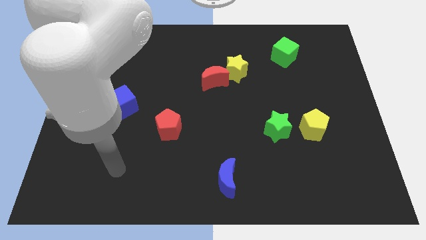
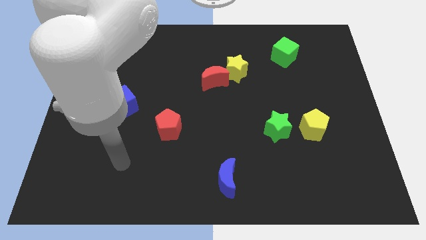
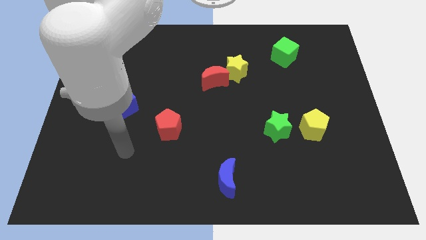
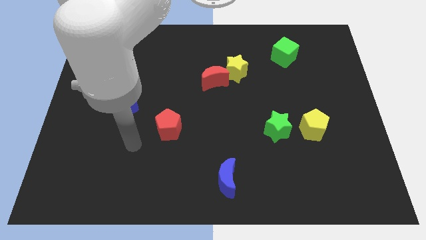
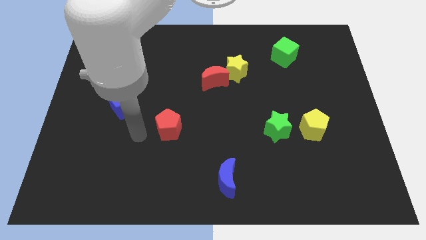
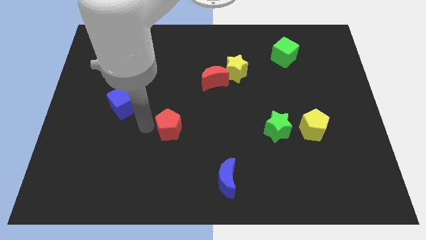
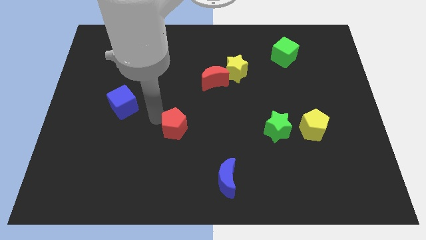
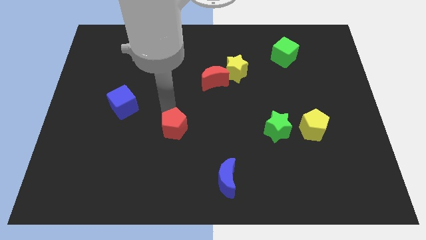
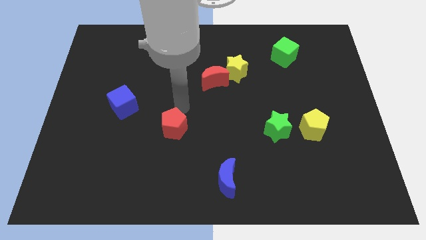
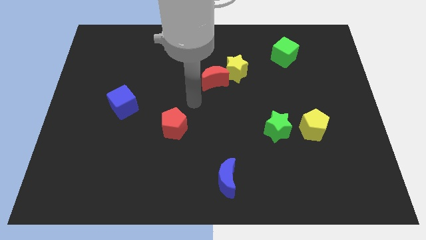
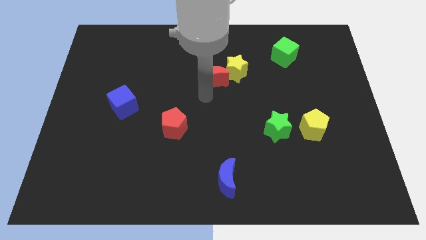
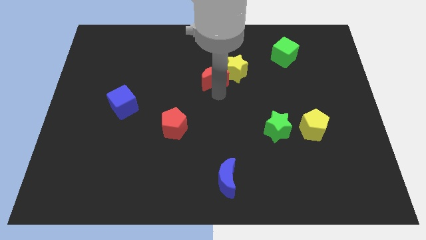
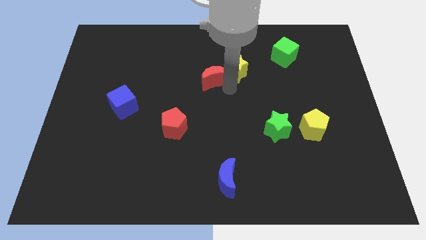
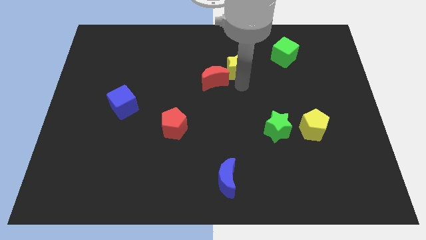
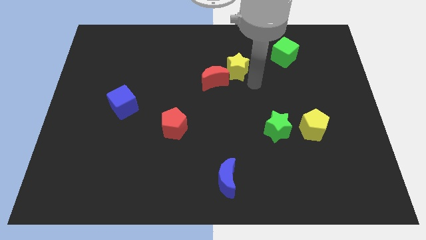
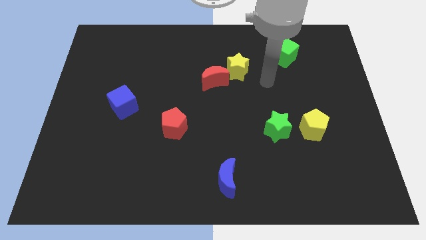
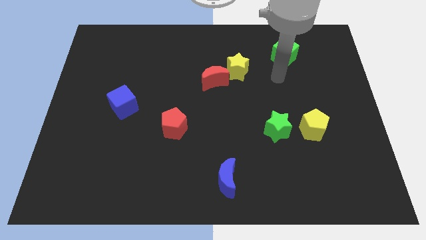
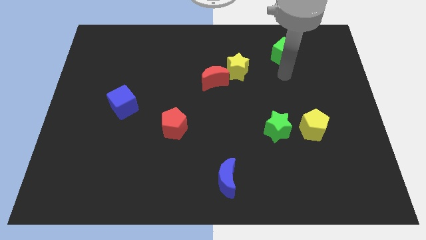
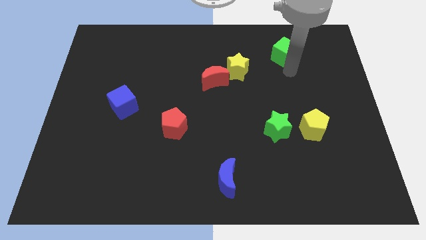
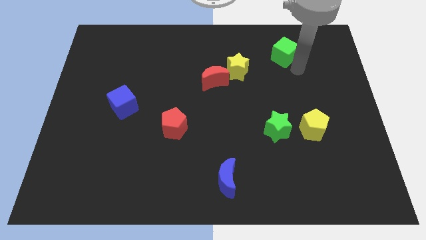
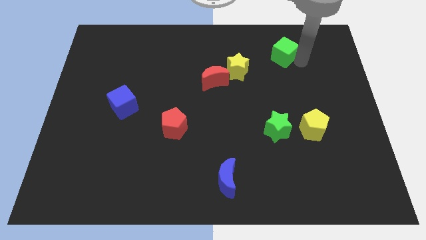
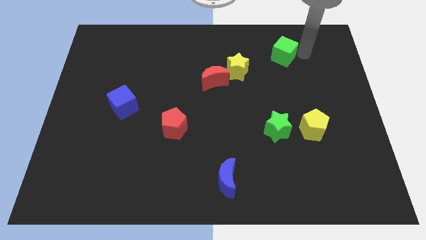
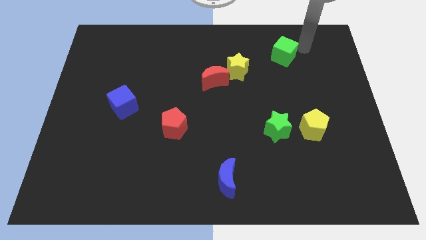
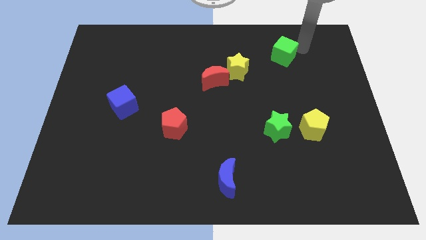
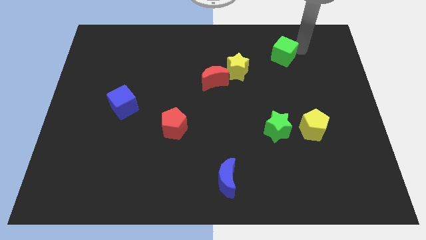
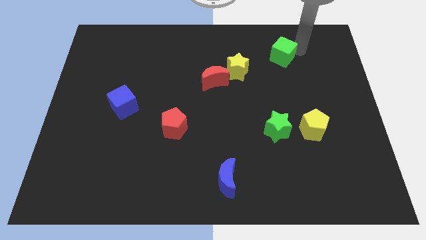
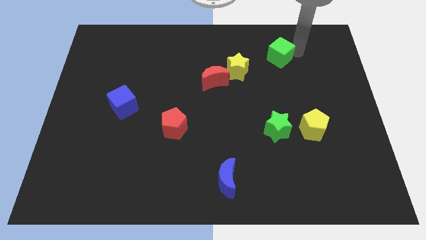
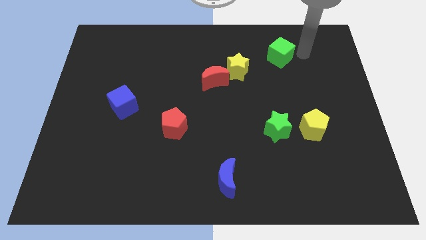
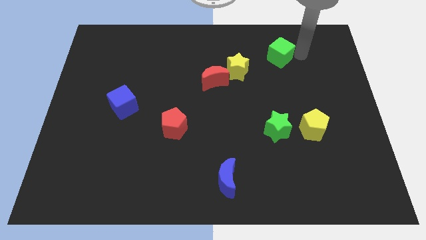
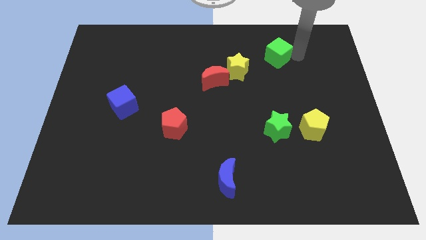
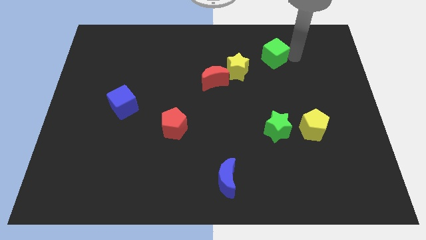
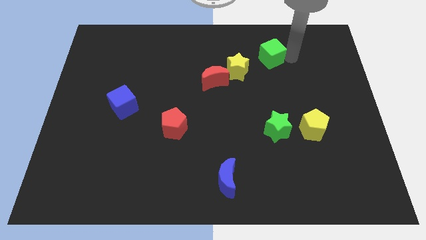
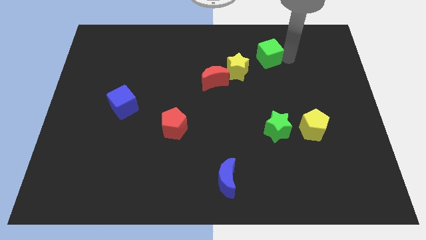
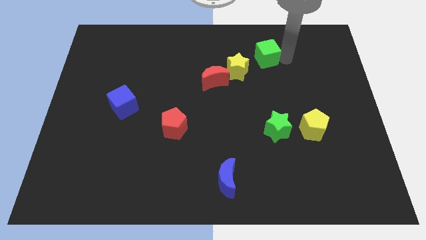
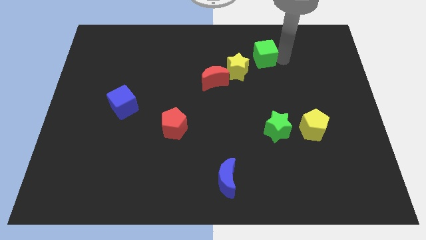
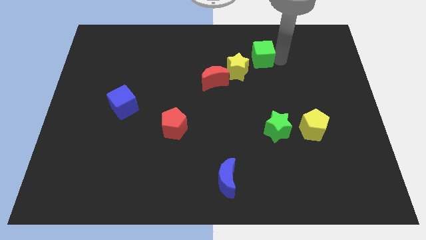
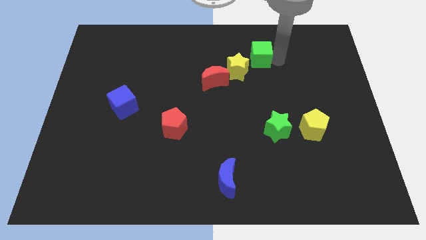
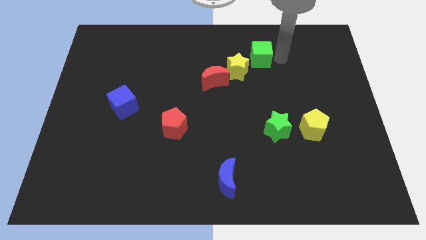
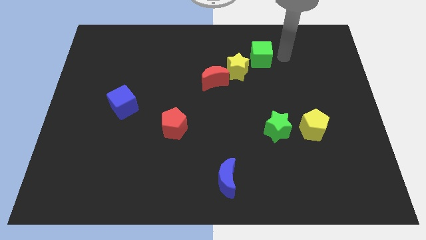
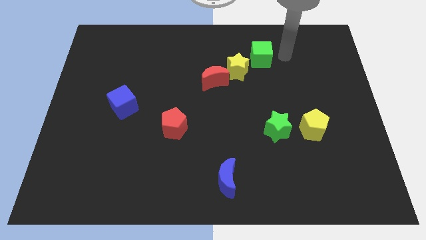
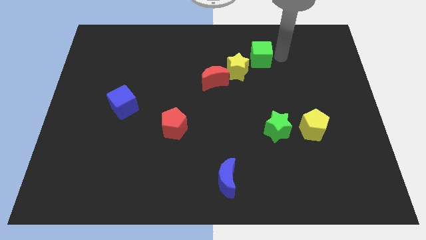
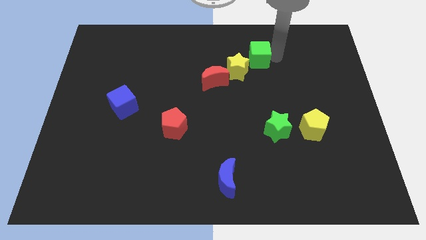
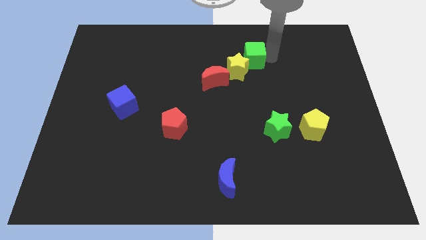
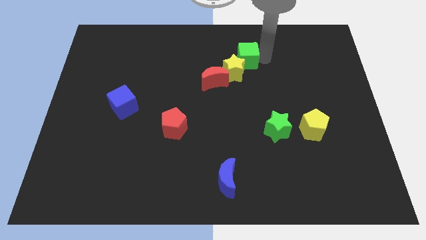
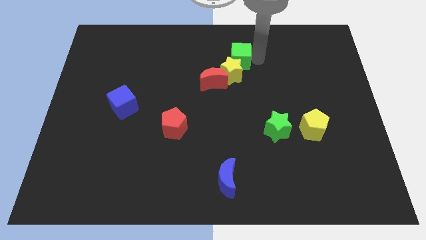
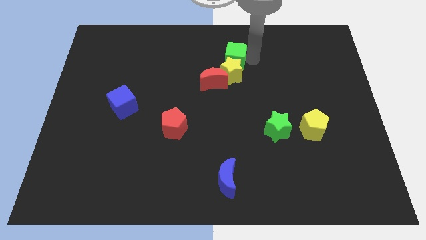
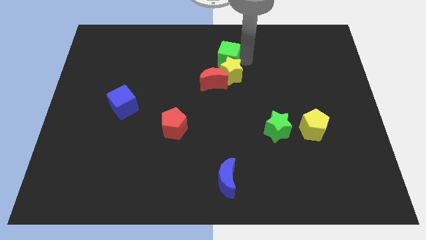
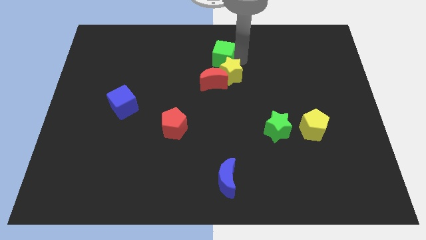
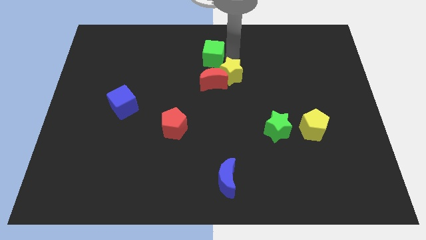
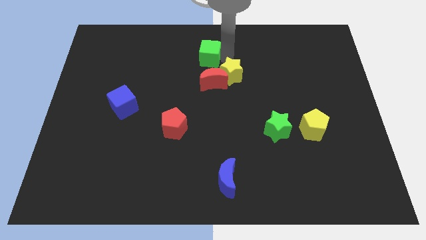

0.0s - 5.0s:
push the green cube to the left

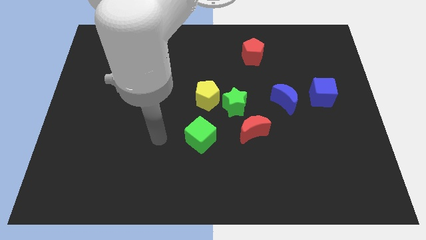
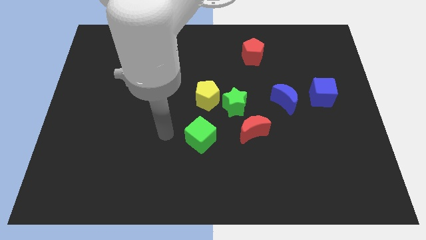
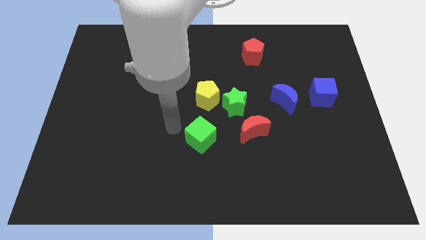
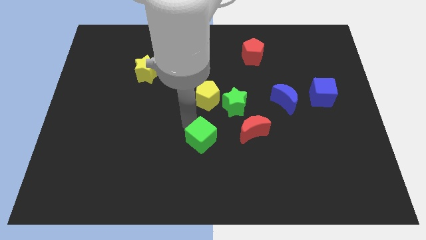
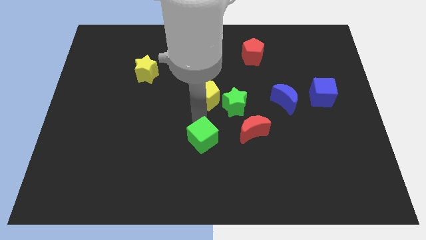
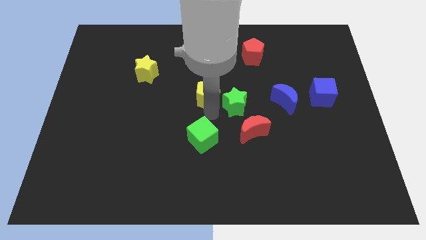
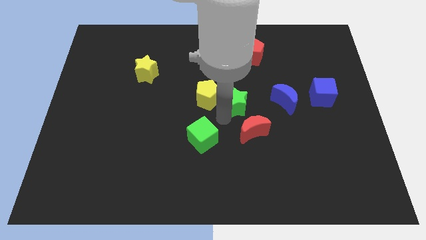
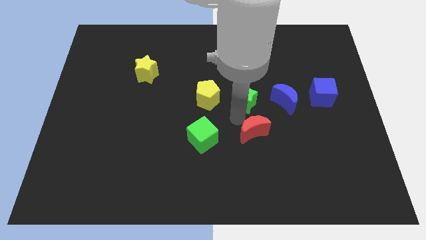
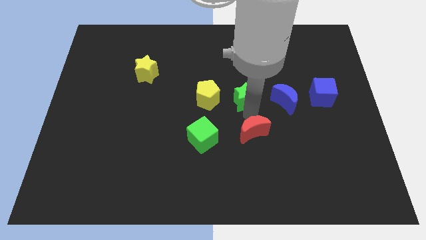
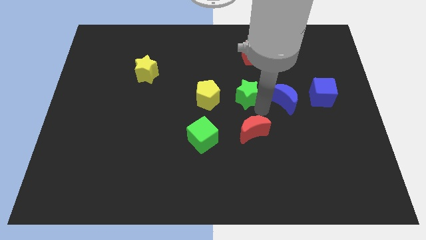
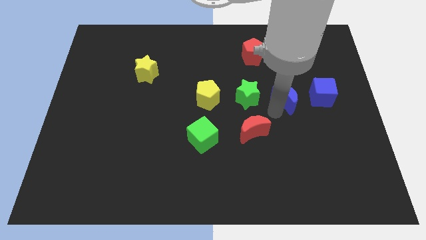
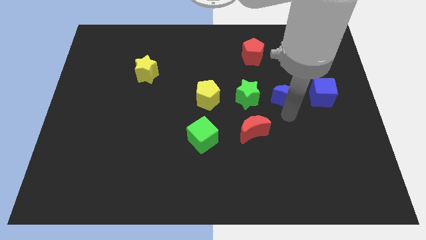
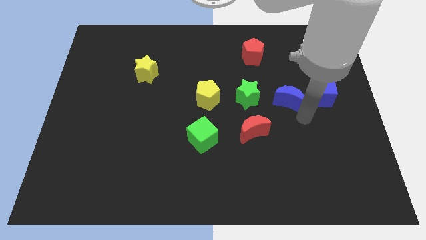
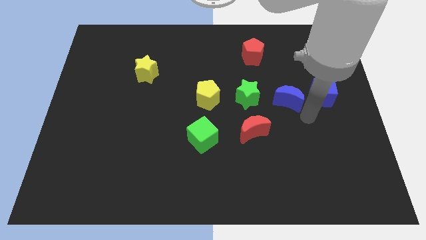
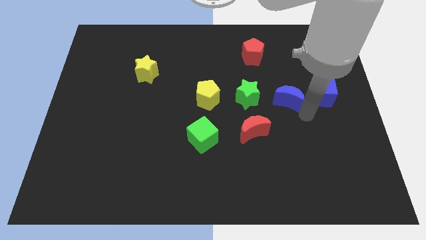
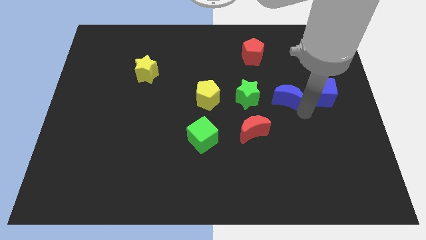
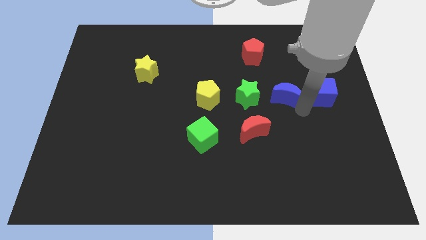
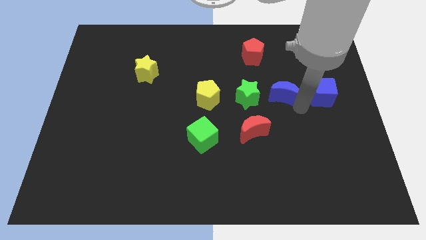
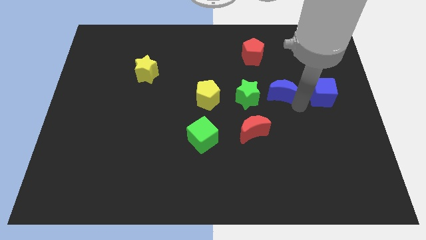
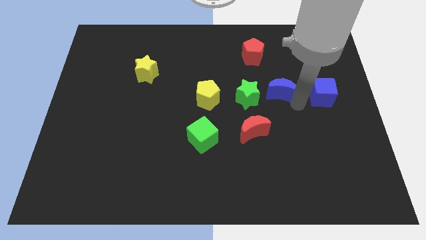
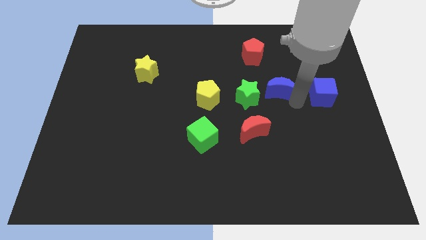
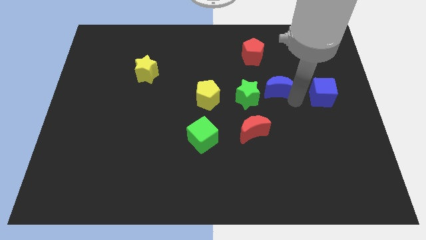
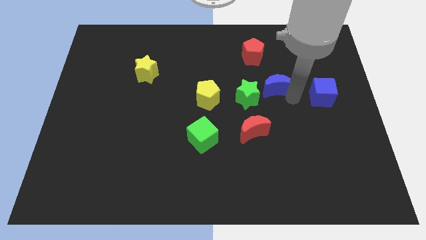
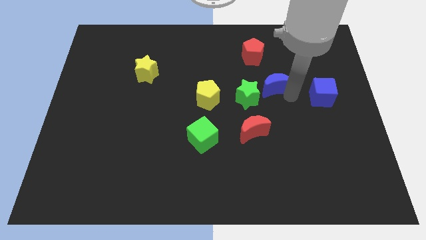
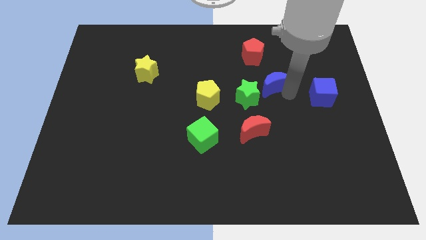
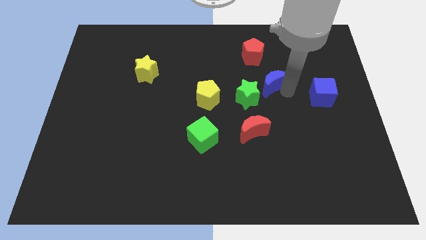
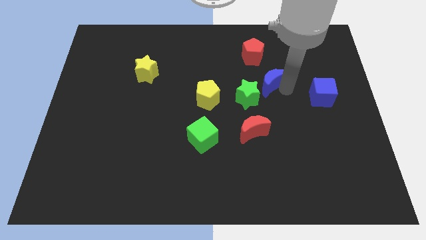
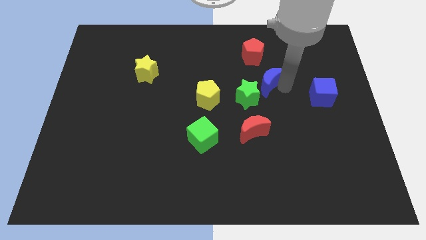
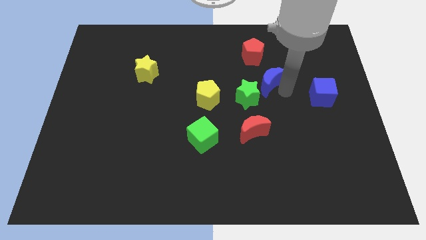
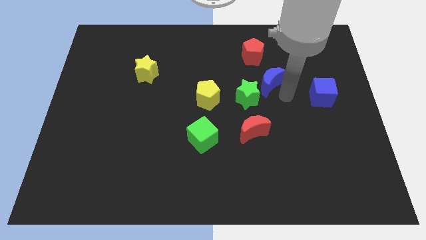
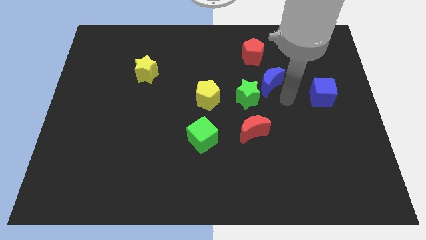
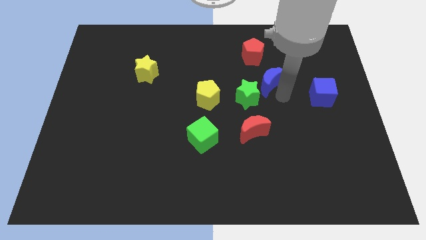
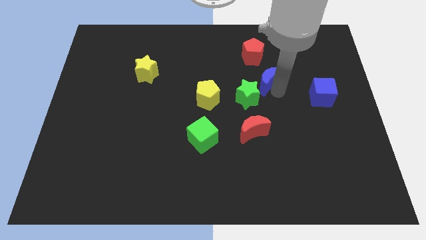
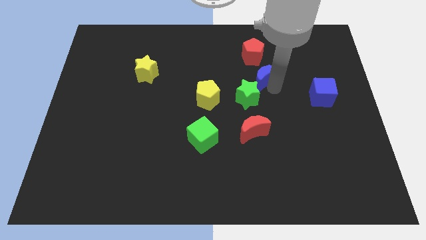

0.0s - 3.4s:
push the blue moon up and left a bit
